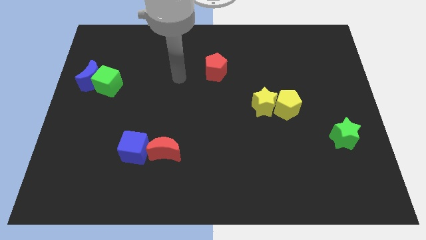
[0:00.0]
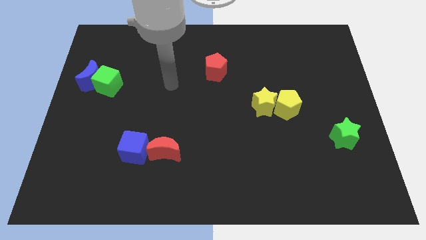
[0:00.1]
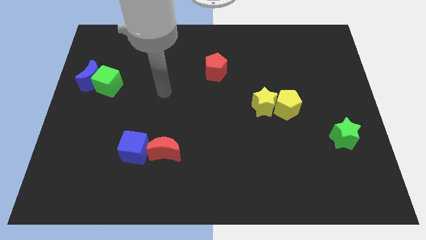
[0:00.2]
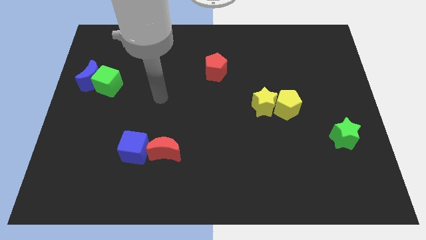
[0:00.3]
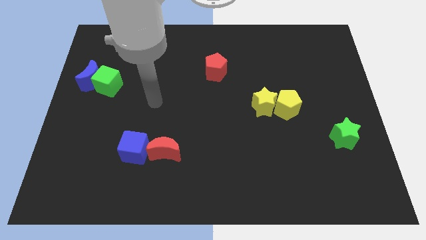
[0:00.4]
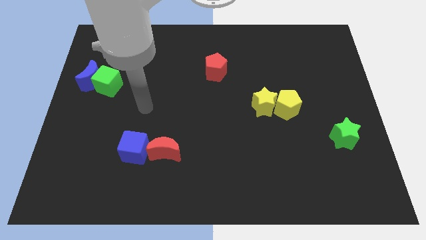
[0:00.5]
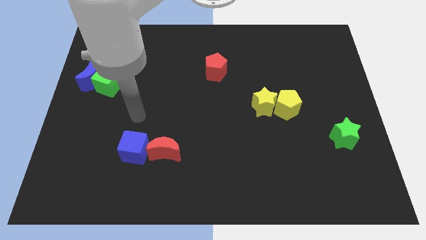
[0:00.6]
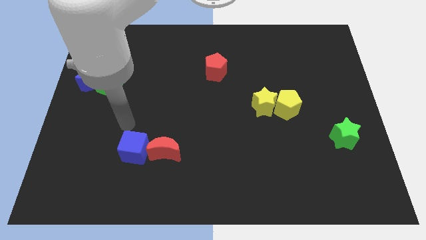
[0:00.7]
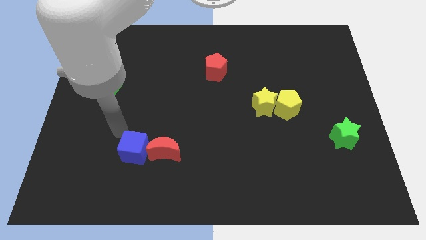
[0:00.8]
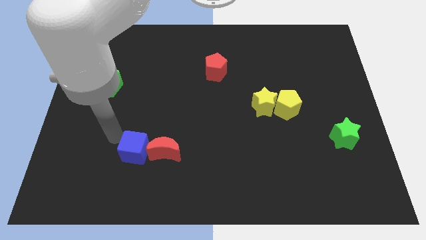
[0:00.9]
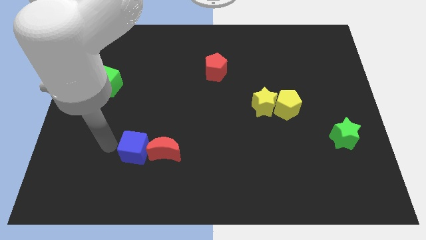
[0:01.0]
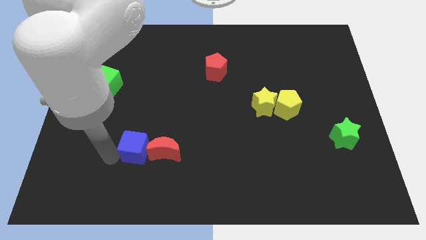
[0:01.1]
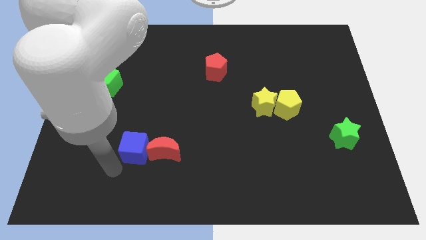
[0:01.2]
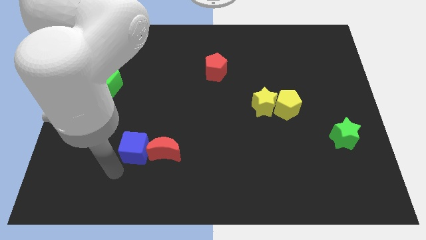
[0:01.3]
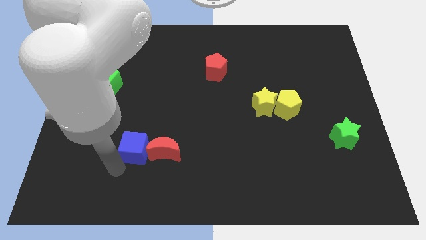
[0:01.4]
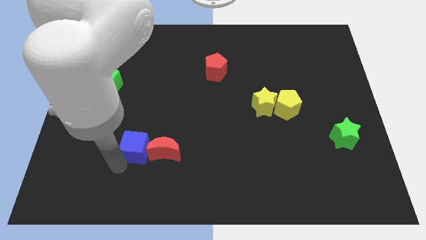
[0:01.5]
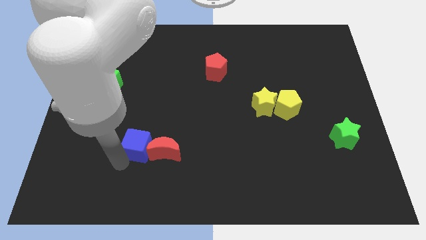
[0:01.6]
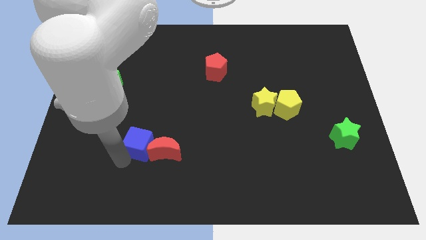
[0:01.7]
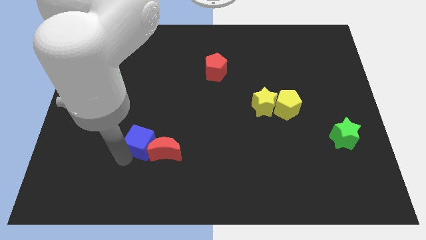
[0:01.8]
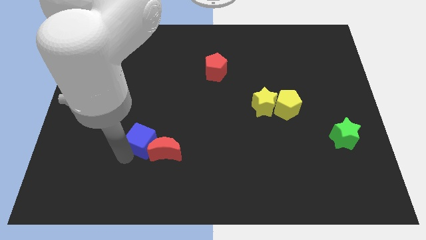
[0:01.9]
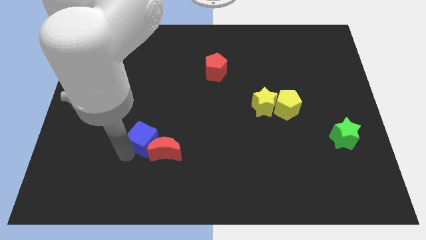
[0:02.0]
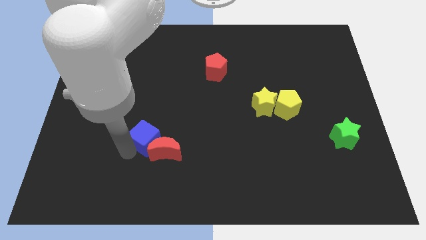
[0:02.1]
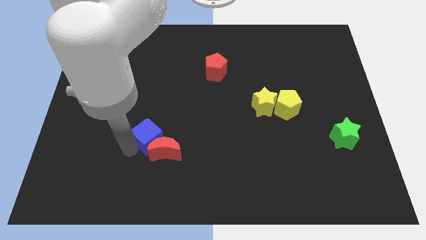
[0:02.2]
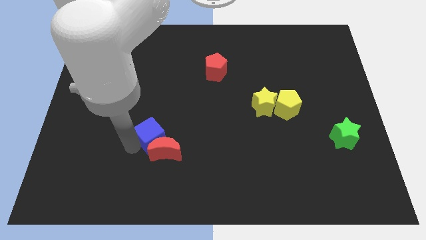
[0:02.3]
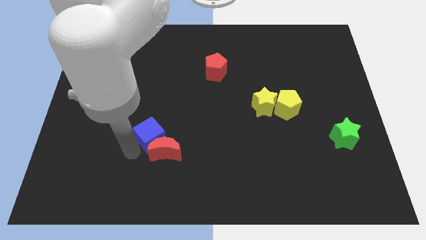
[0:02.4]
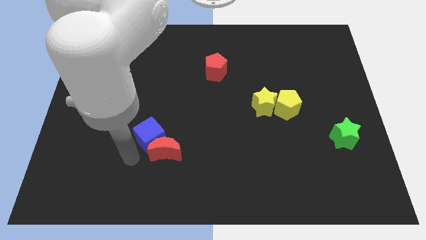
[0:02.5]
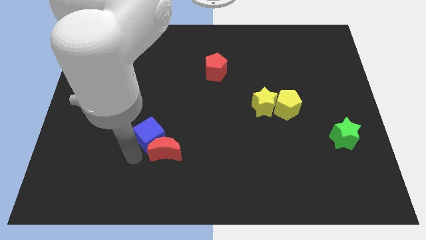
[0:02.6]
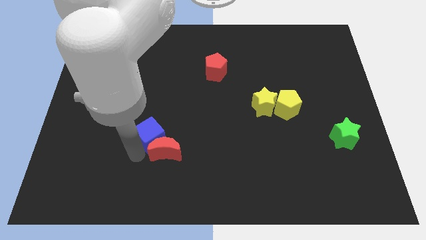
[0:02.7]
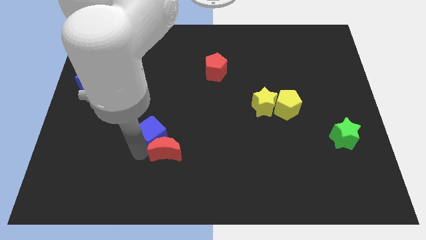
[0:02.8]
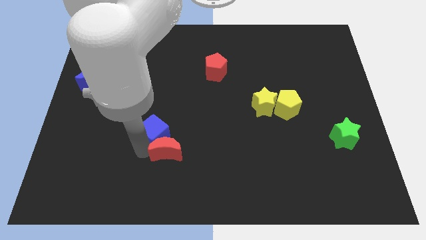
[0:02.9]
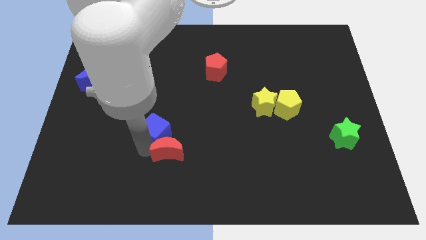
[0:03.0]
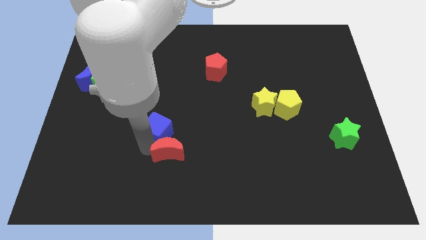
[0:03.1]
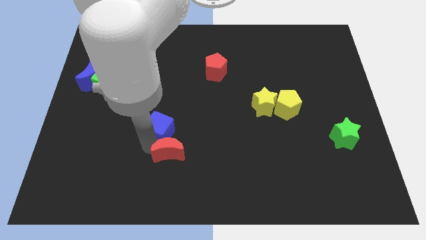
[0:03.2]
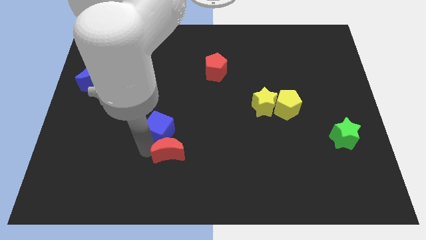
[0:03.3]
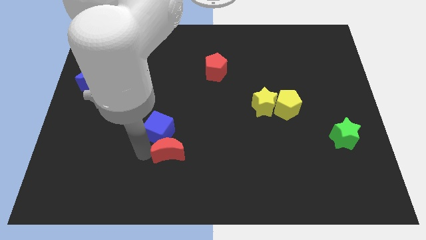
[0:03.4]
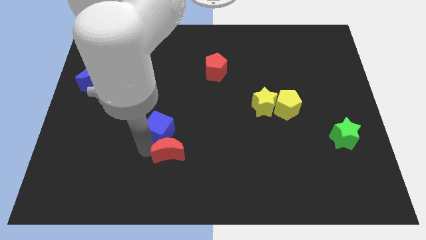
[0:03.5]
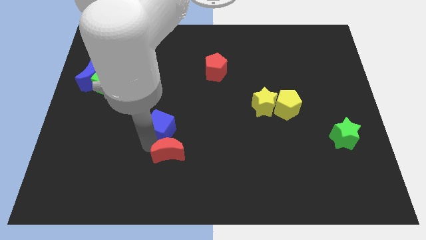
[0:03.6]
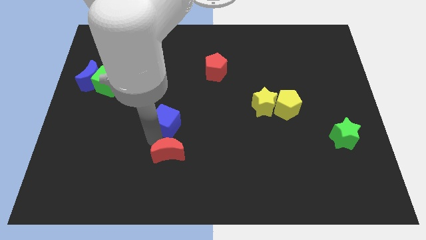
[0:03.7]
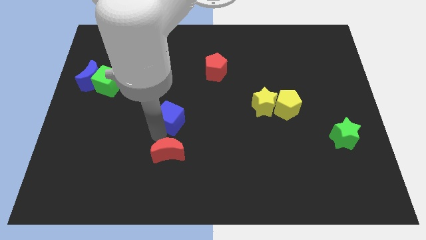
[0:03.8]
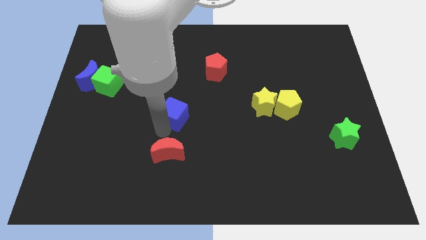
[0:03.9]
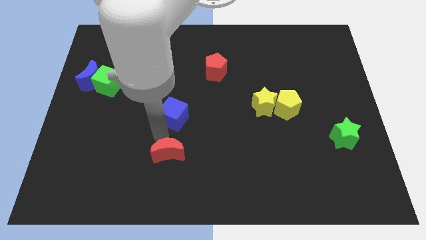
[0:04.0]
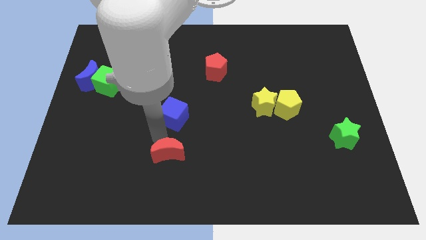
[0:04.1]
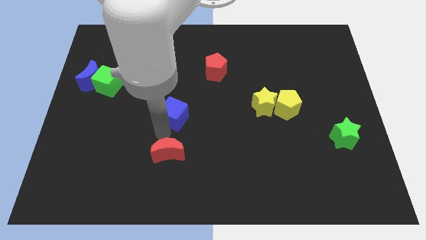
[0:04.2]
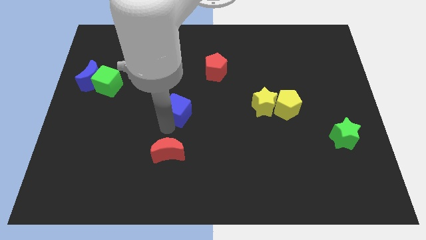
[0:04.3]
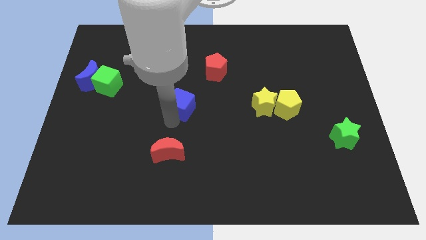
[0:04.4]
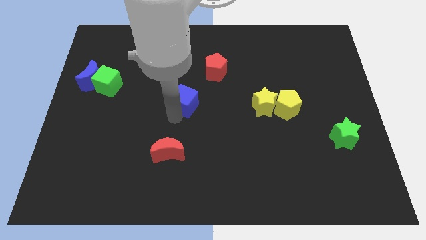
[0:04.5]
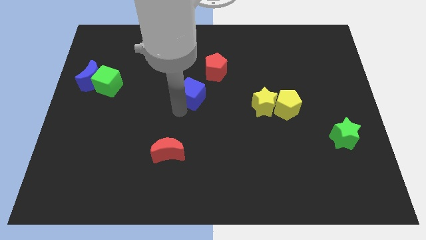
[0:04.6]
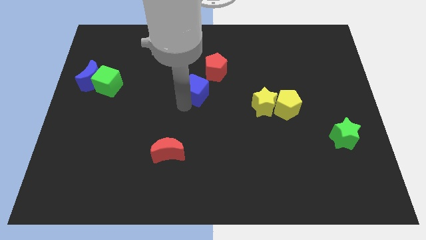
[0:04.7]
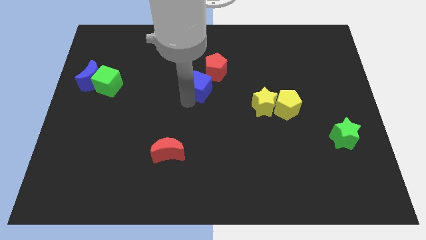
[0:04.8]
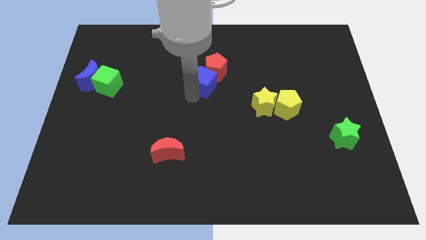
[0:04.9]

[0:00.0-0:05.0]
put the blue cube to the red pentagon

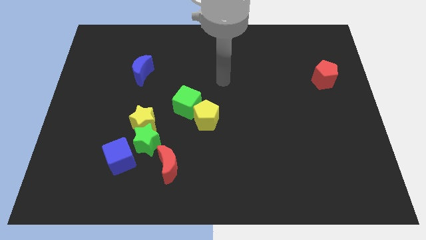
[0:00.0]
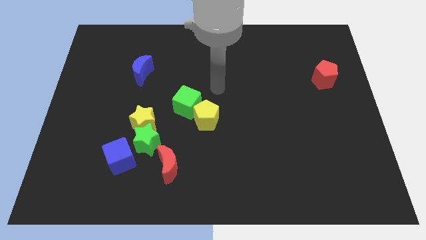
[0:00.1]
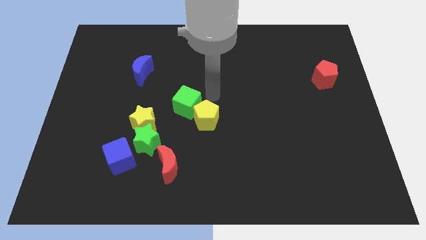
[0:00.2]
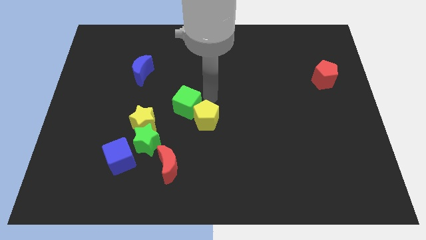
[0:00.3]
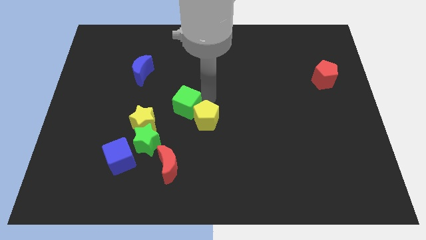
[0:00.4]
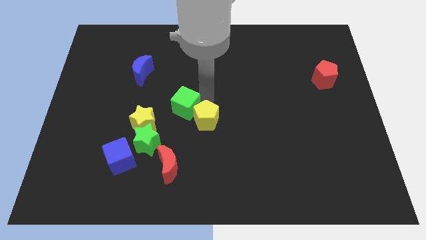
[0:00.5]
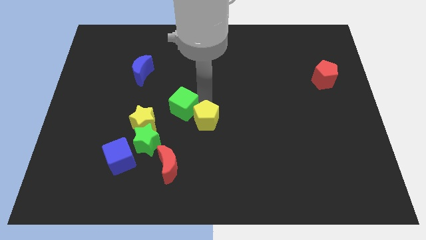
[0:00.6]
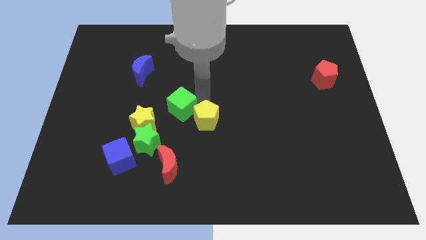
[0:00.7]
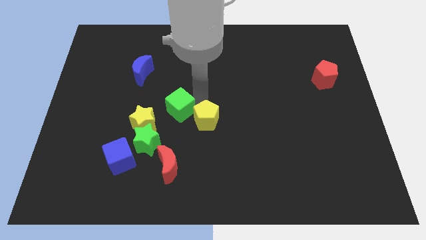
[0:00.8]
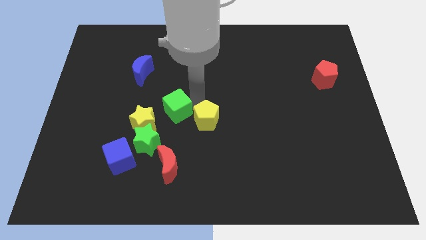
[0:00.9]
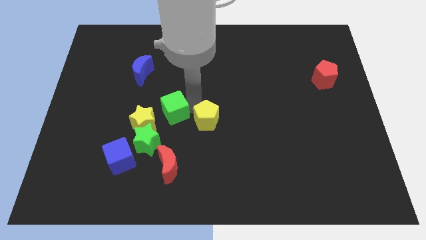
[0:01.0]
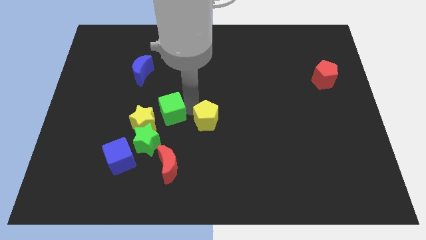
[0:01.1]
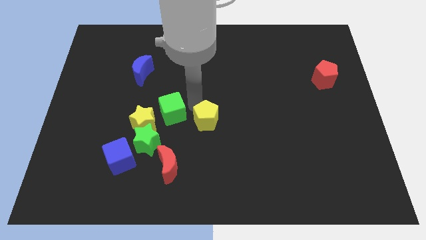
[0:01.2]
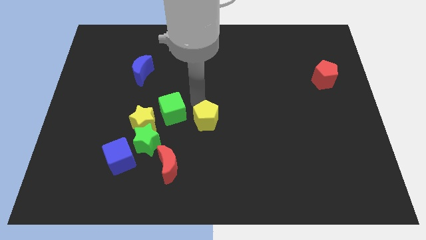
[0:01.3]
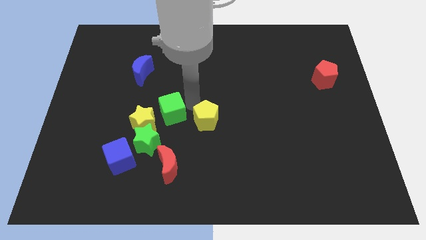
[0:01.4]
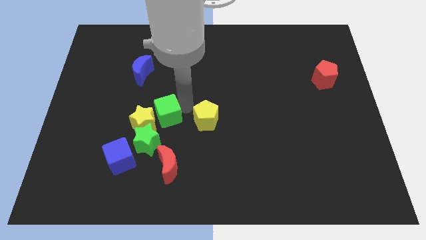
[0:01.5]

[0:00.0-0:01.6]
move the green cube towards the yellow star

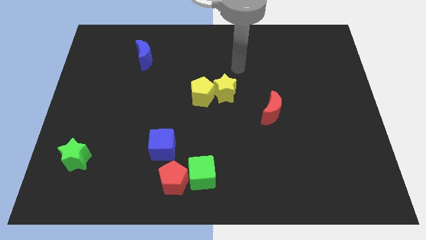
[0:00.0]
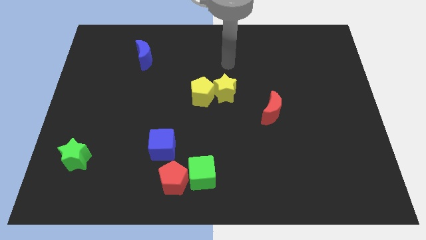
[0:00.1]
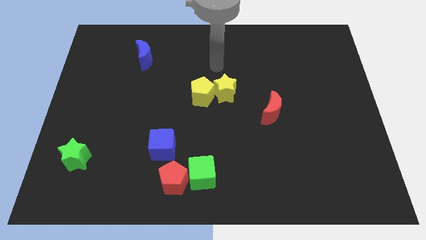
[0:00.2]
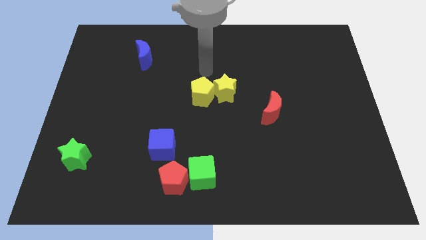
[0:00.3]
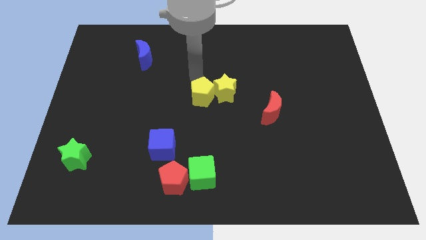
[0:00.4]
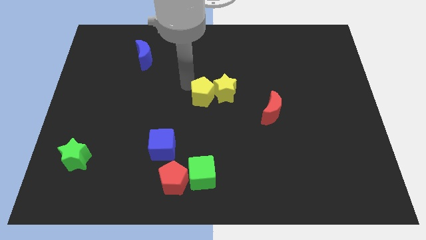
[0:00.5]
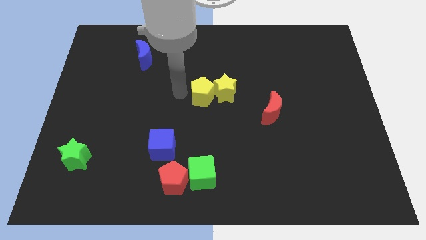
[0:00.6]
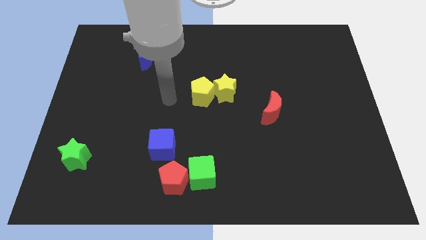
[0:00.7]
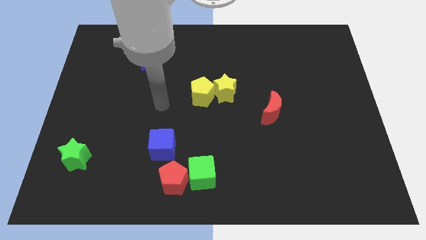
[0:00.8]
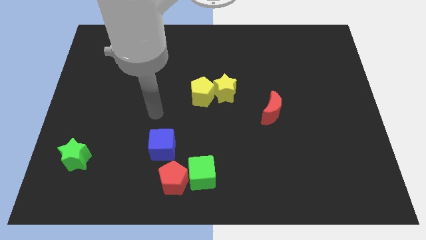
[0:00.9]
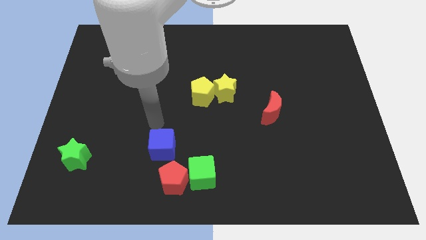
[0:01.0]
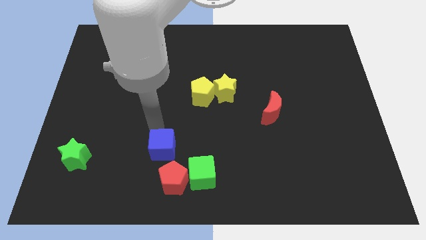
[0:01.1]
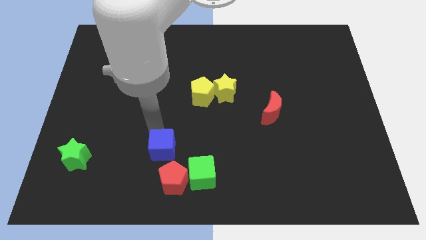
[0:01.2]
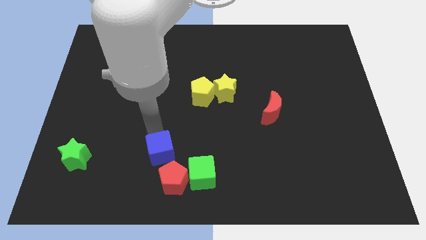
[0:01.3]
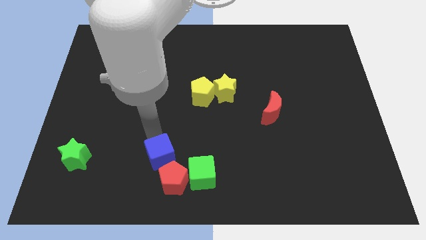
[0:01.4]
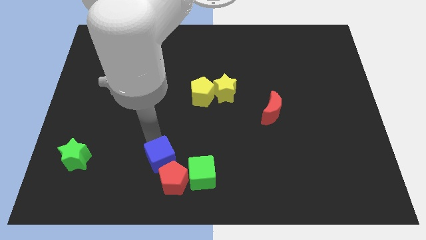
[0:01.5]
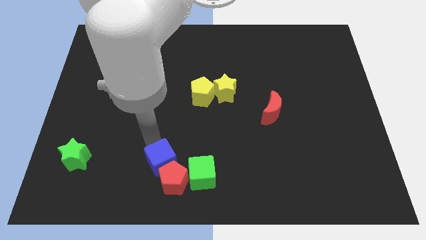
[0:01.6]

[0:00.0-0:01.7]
slide the blue cube towards the red pentagon
